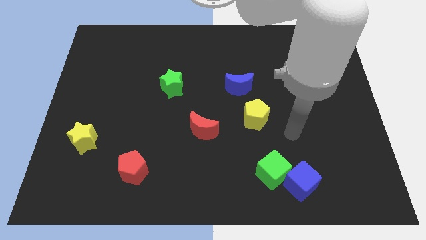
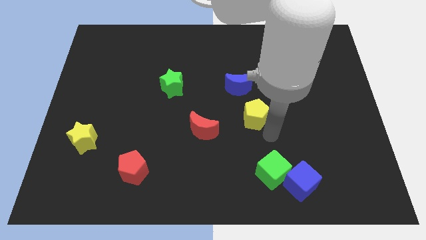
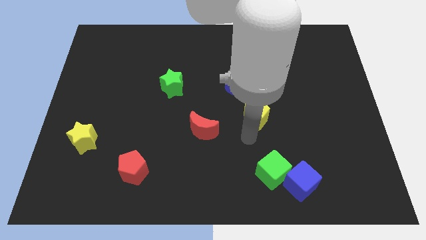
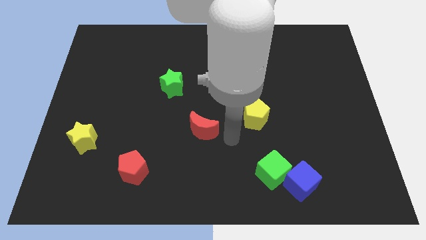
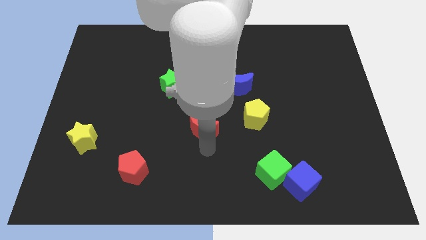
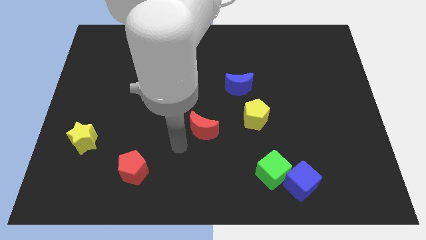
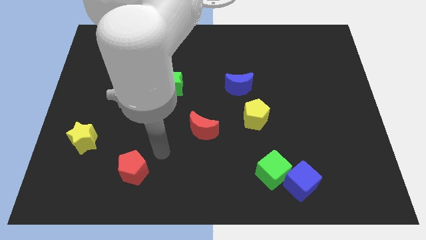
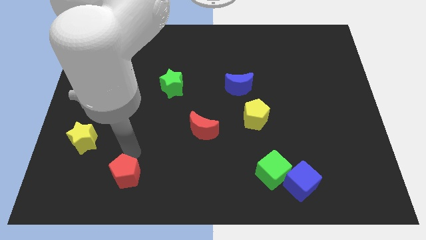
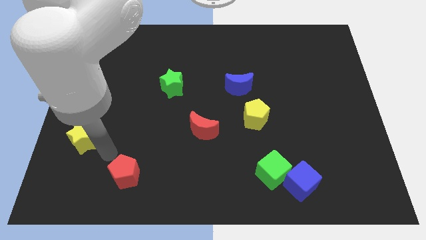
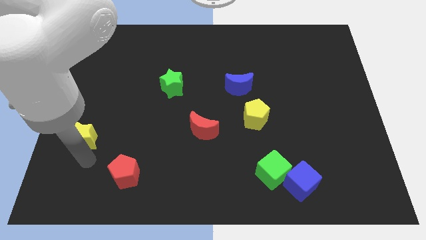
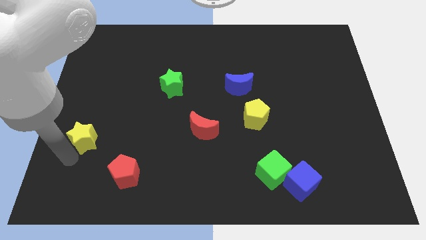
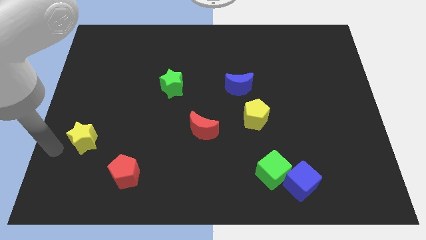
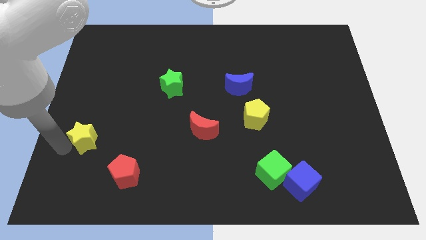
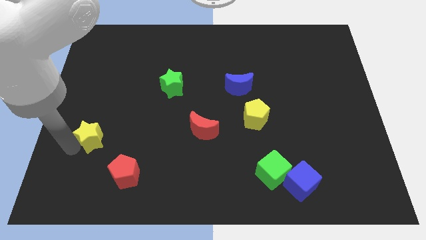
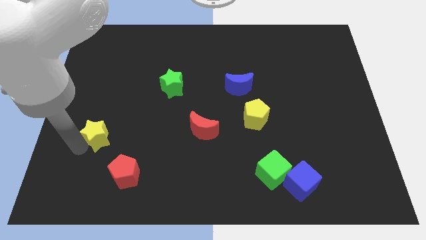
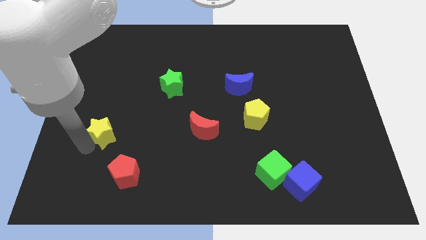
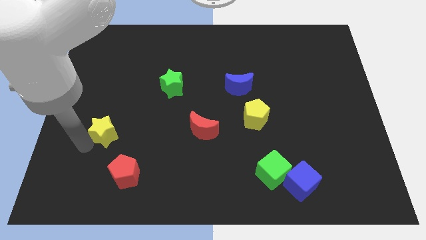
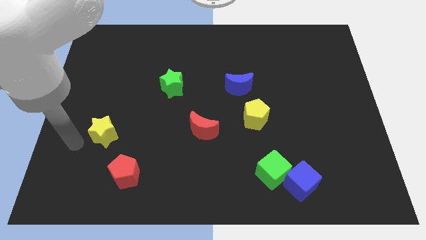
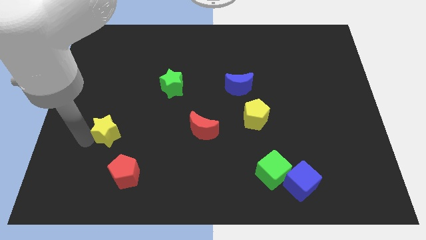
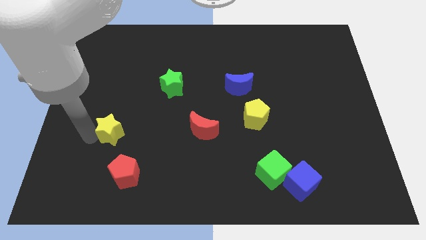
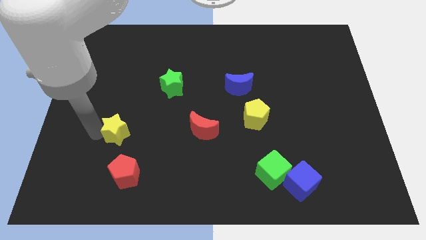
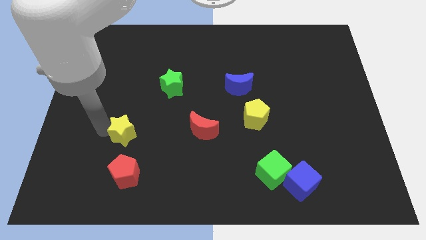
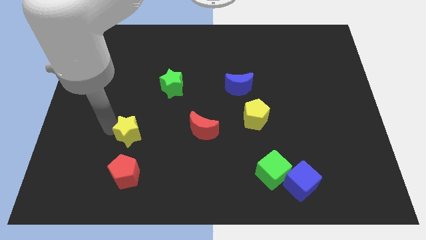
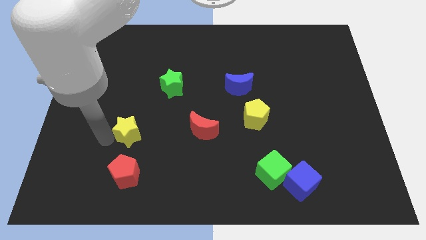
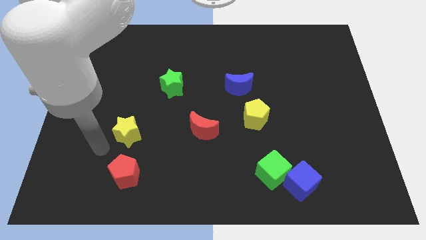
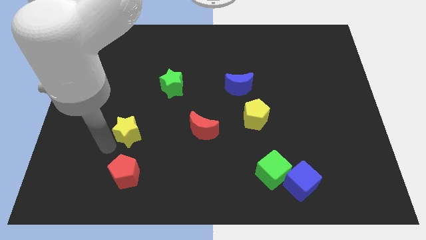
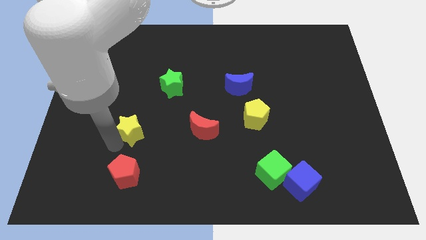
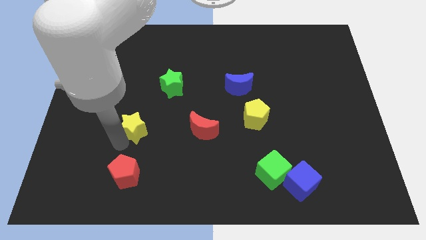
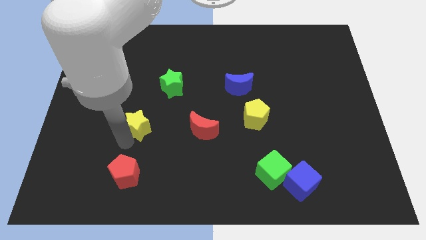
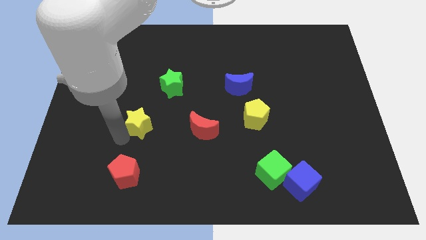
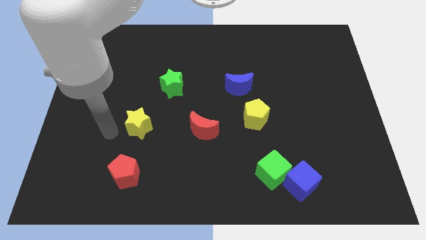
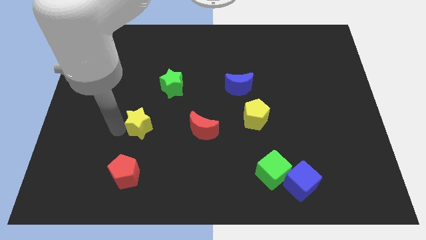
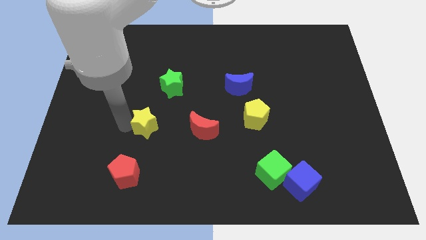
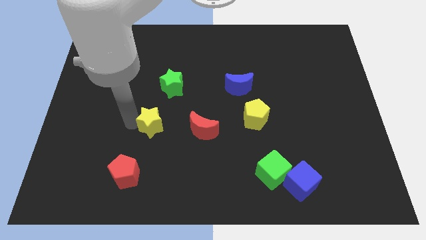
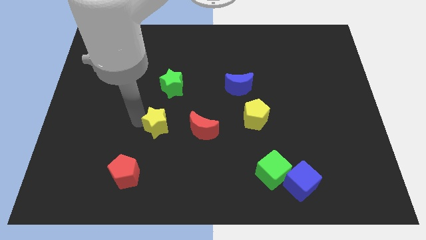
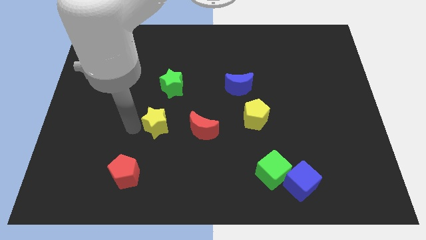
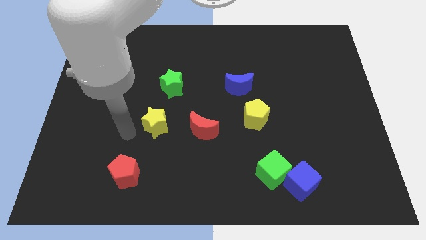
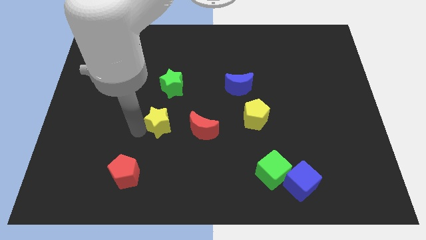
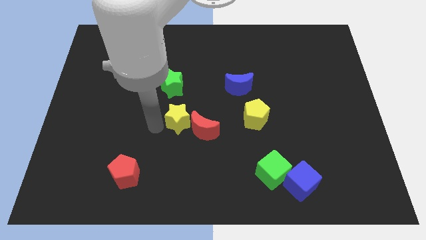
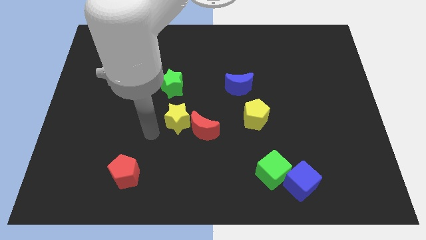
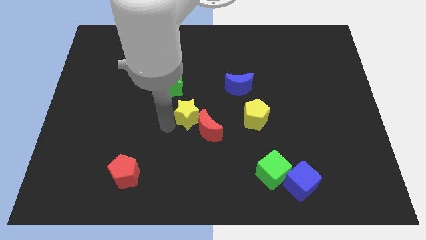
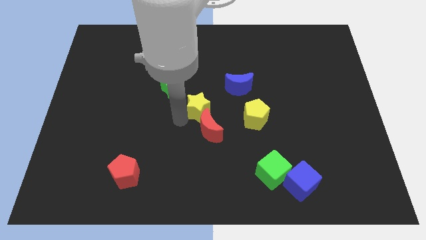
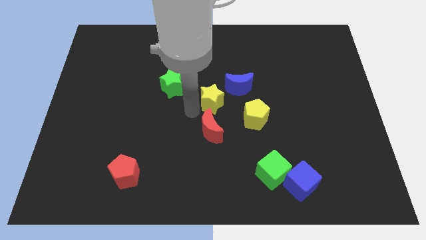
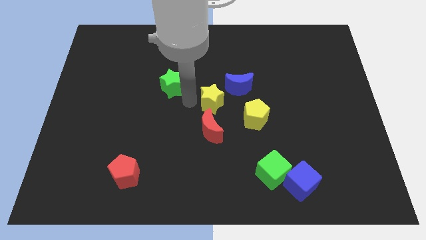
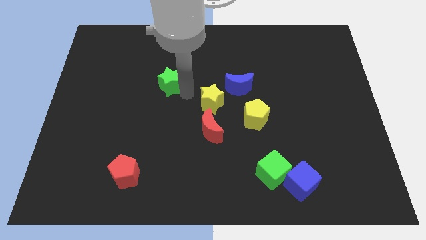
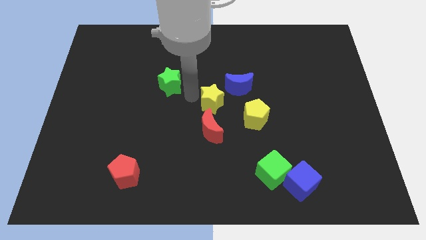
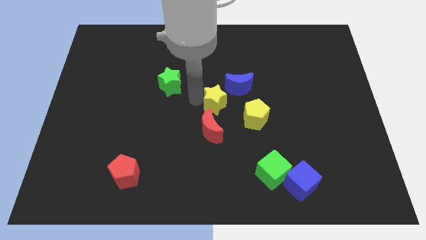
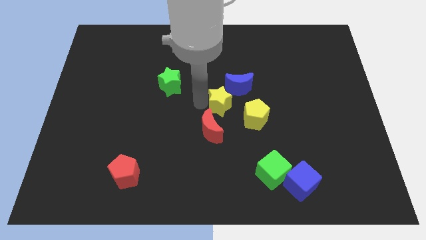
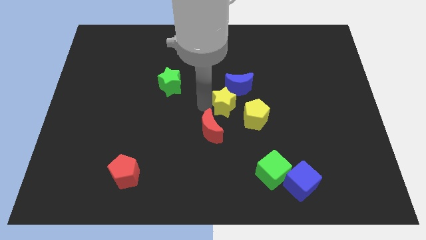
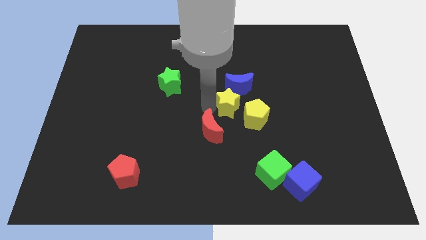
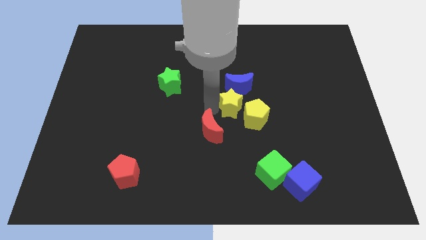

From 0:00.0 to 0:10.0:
slide the yellow star to the yellow pentagon

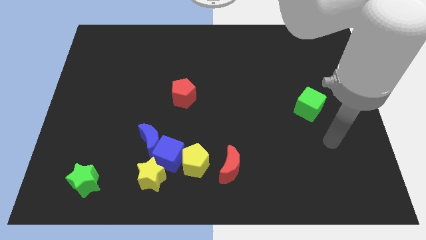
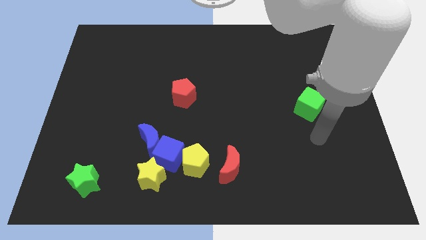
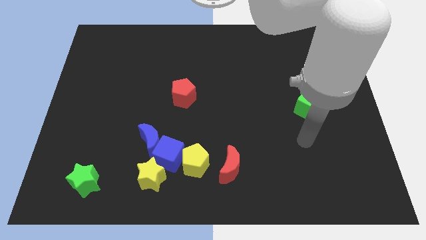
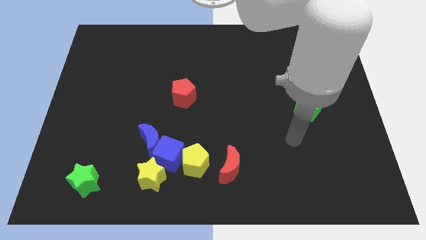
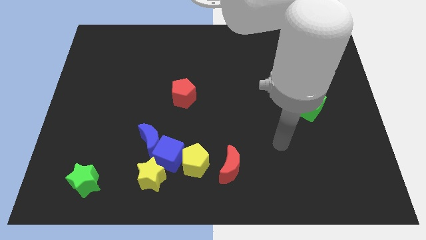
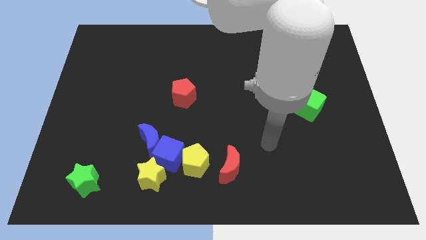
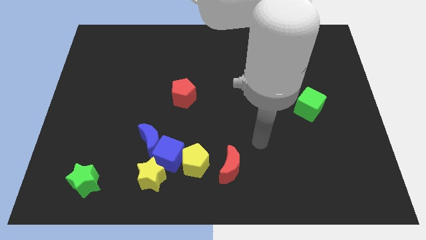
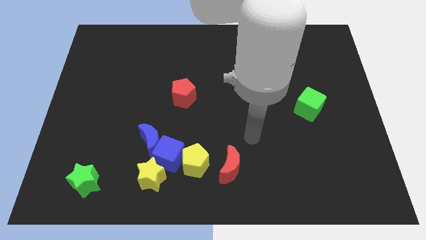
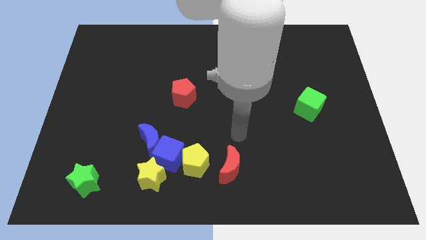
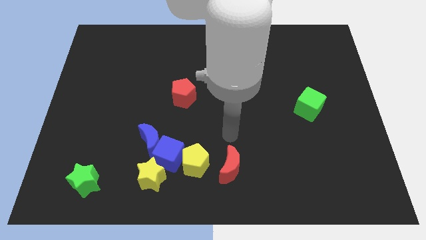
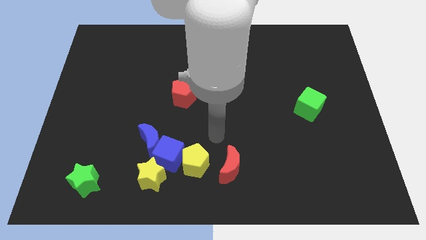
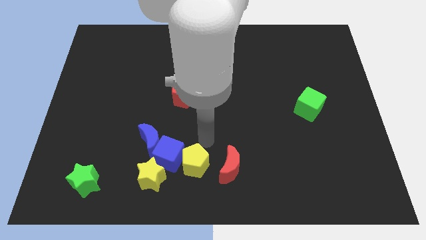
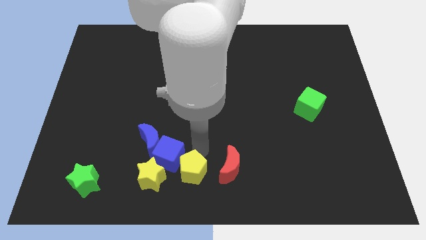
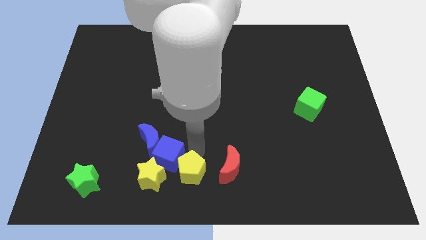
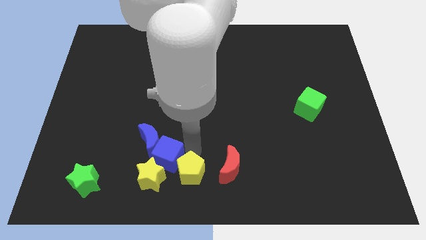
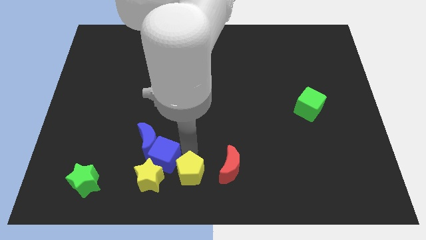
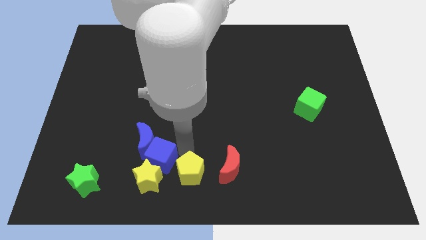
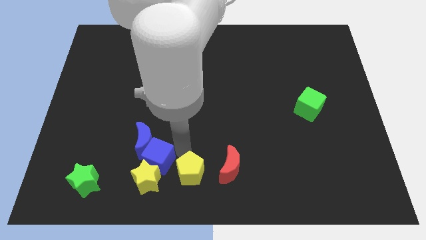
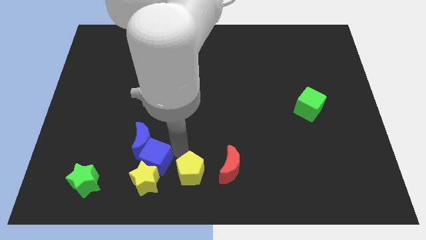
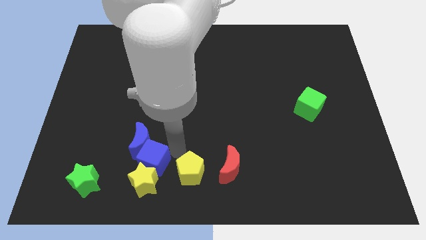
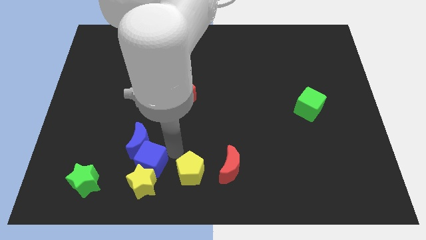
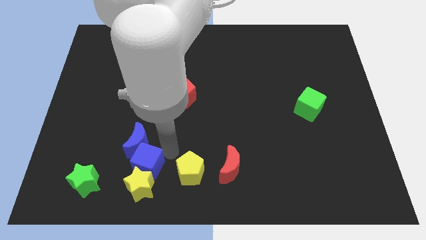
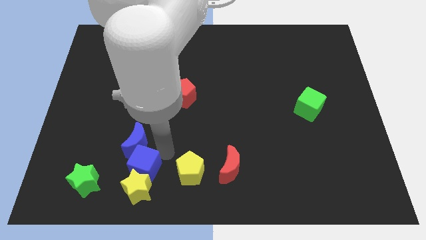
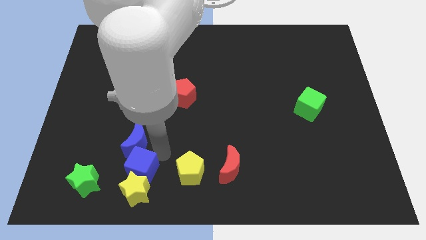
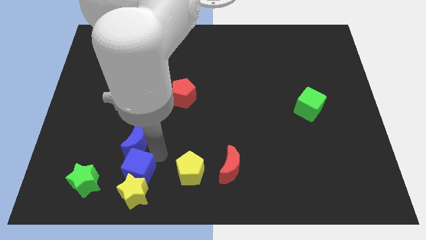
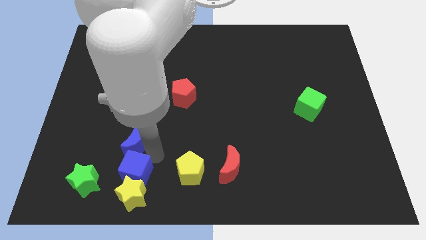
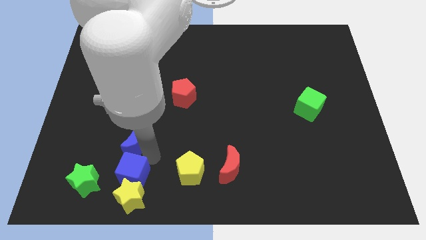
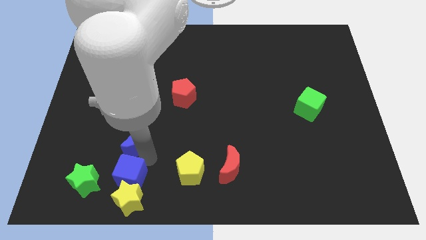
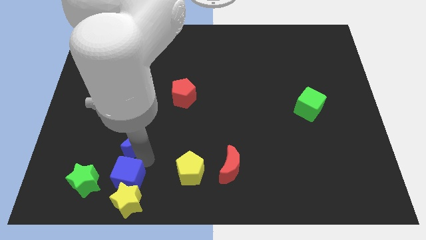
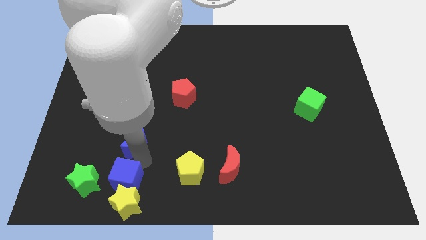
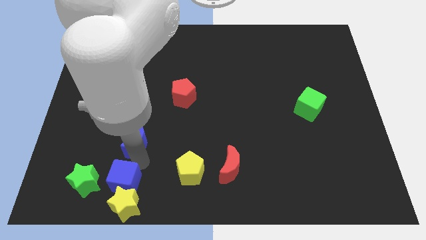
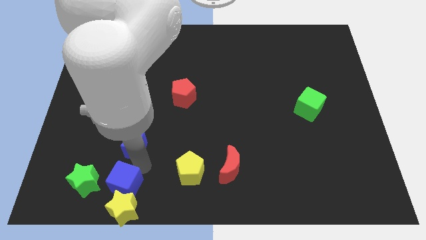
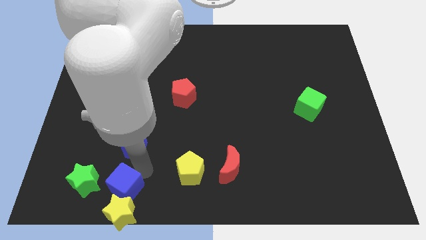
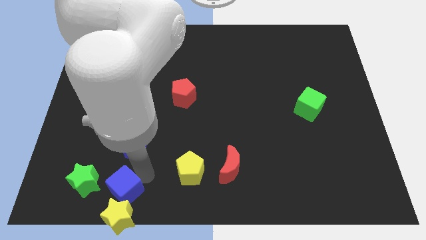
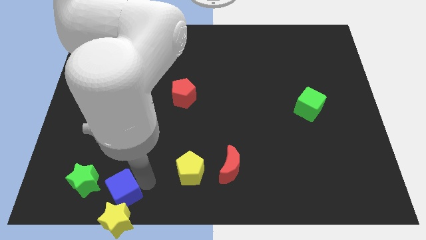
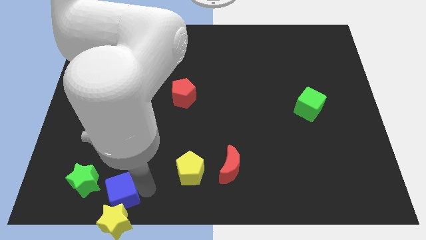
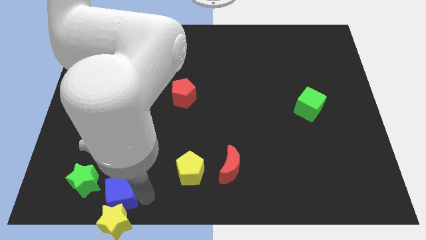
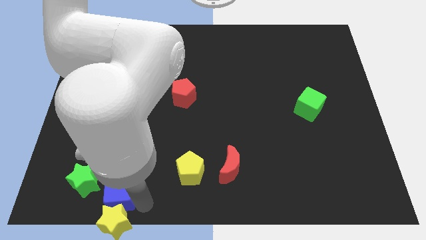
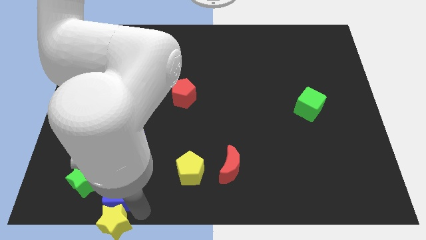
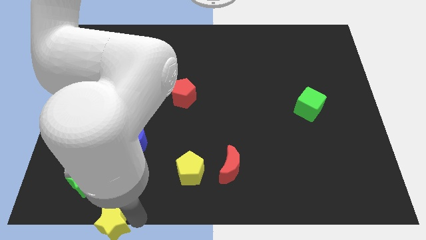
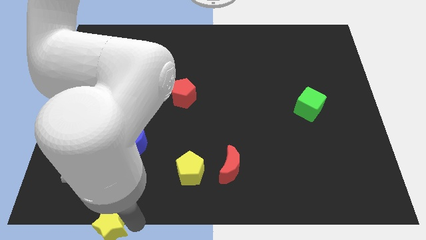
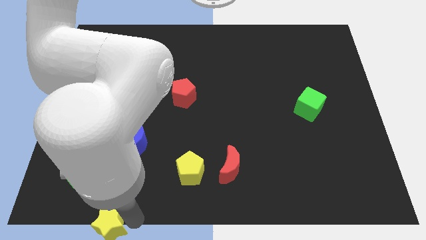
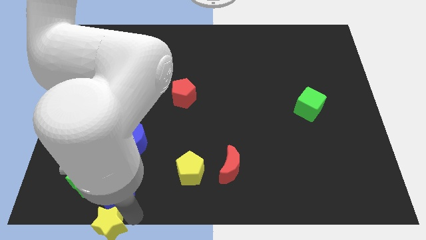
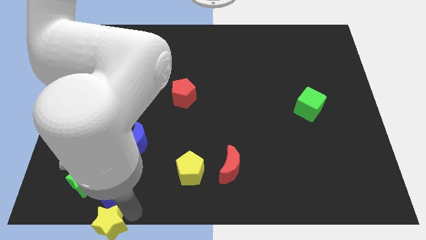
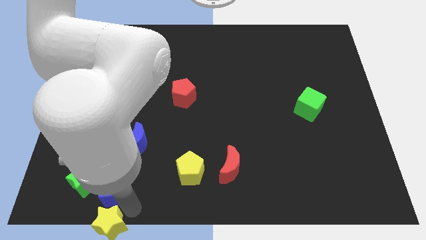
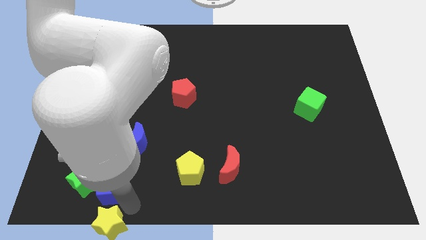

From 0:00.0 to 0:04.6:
slide the blue cube close to the green star
